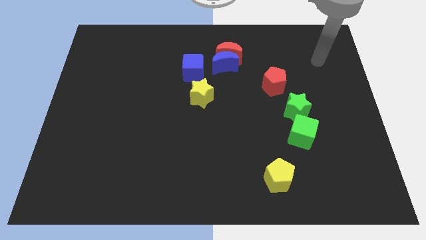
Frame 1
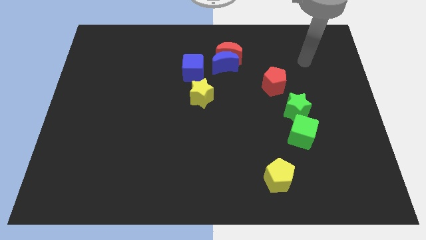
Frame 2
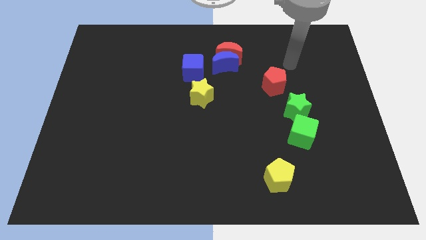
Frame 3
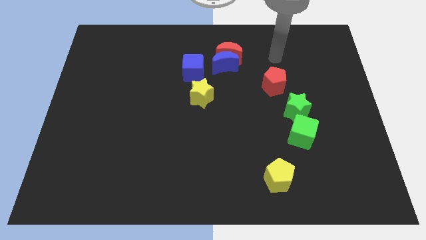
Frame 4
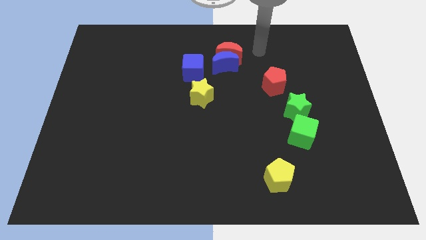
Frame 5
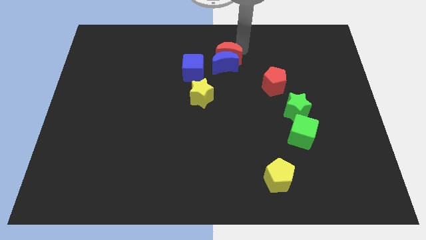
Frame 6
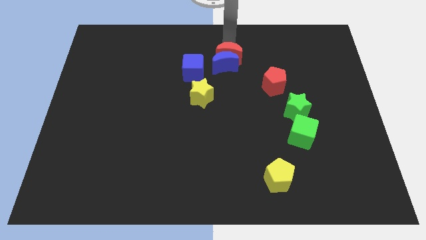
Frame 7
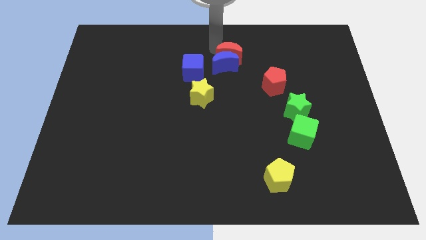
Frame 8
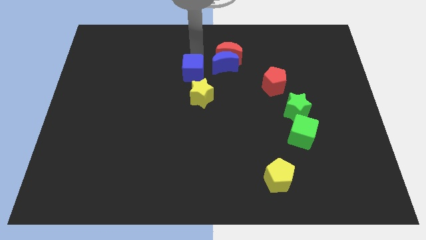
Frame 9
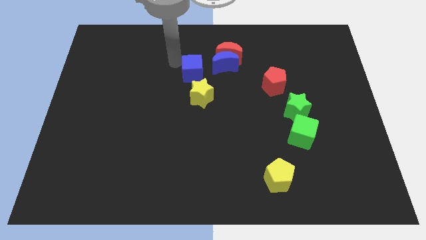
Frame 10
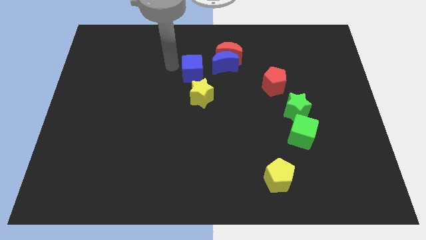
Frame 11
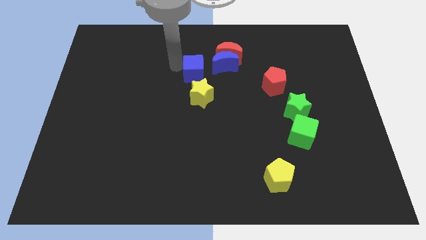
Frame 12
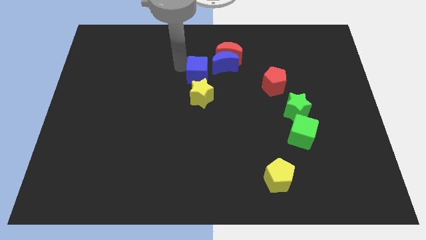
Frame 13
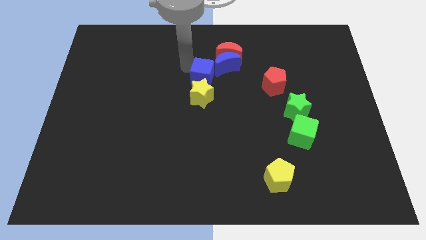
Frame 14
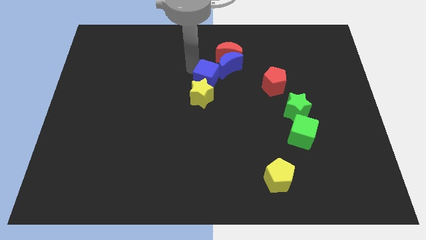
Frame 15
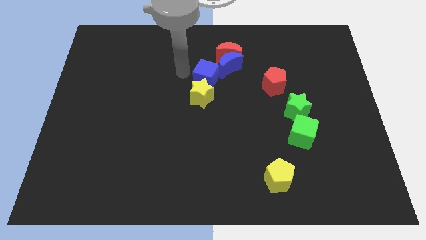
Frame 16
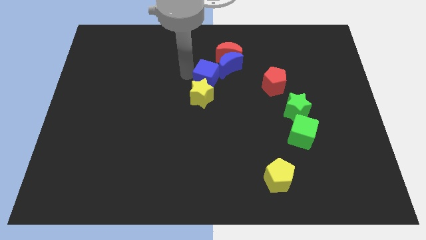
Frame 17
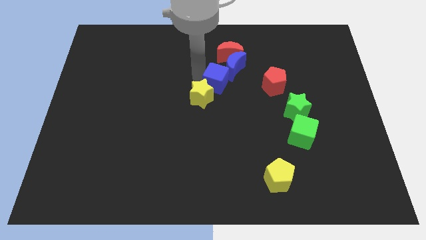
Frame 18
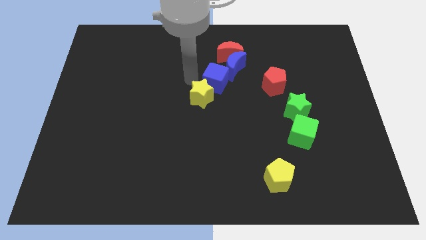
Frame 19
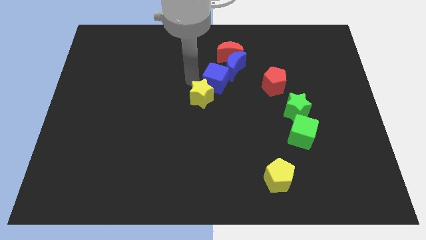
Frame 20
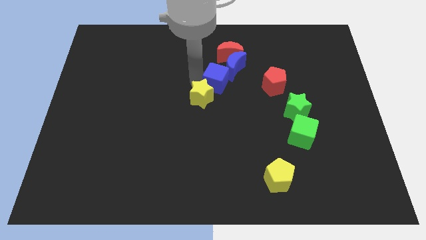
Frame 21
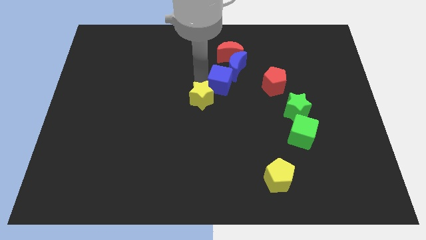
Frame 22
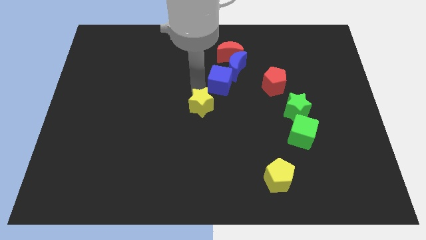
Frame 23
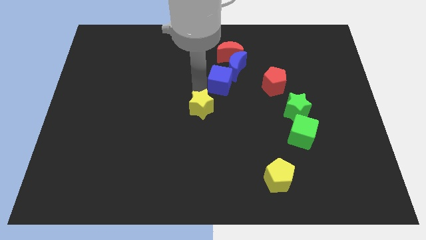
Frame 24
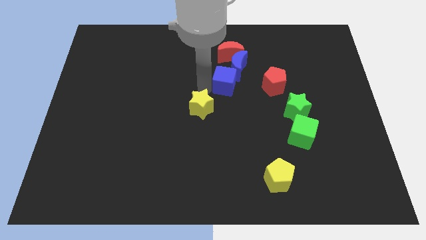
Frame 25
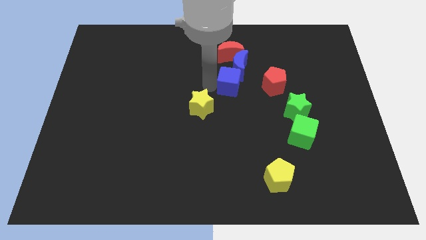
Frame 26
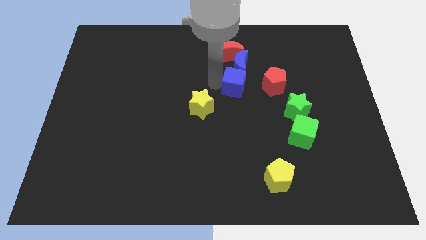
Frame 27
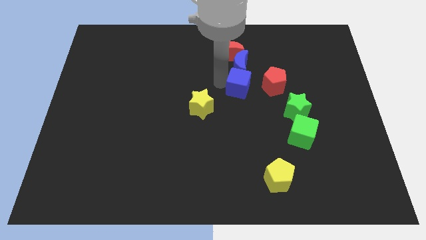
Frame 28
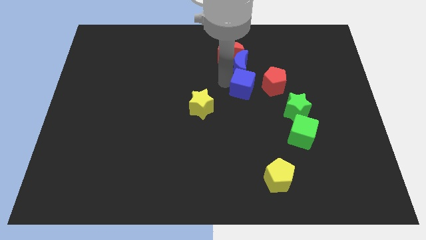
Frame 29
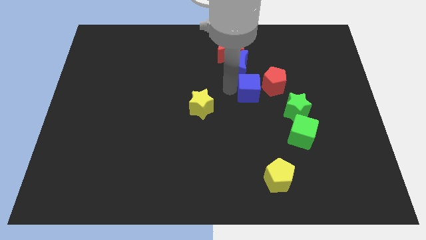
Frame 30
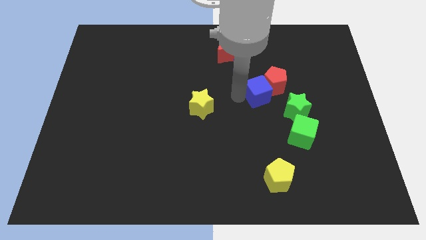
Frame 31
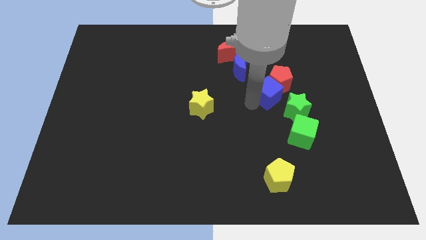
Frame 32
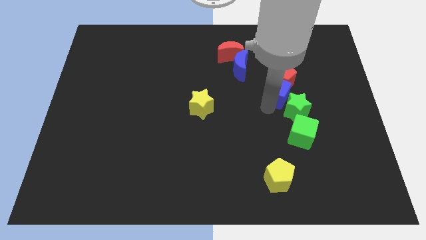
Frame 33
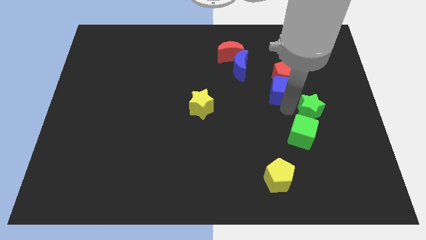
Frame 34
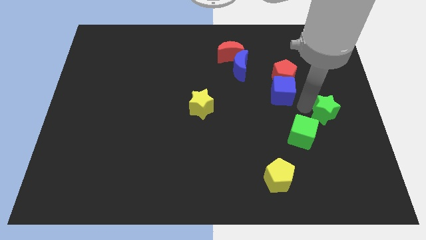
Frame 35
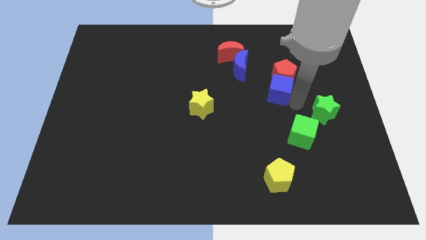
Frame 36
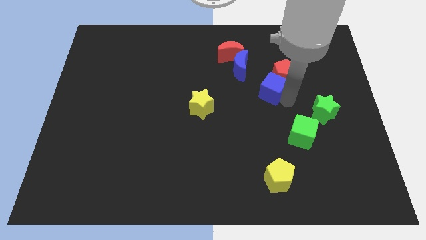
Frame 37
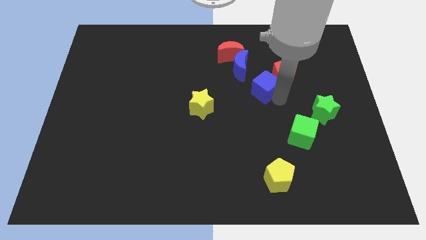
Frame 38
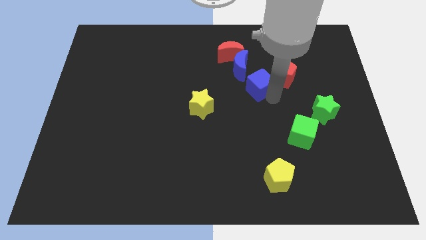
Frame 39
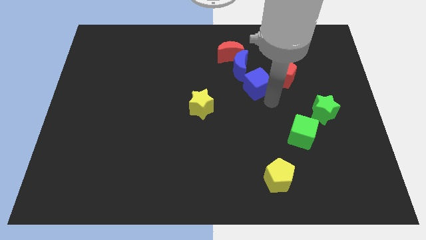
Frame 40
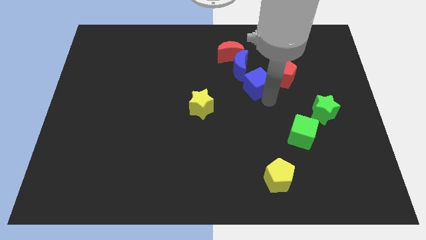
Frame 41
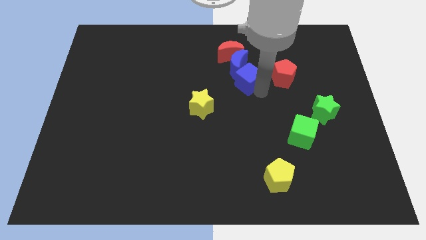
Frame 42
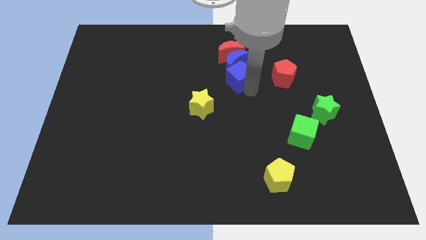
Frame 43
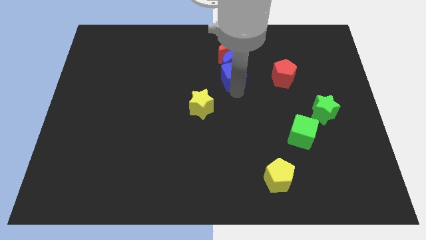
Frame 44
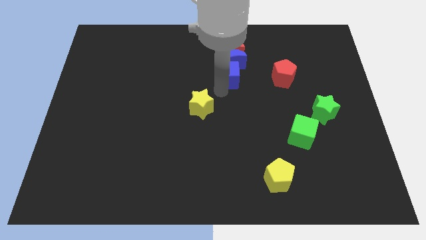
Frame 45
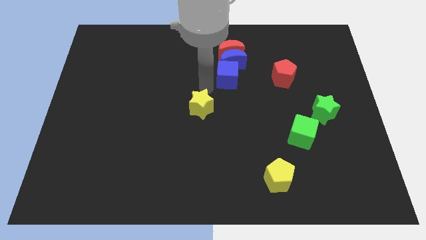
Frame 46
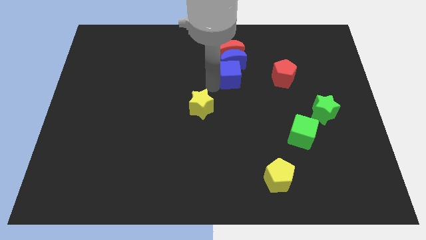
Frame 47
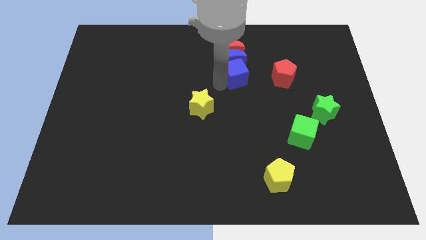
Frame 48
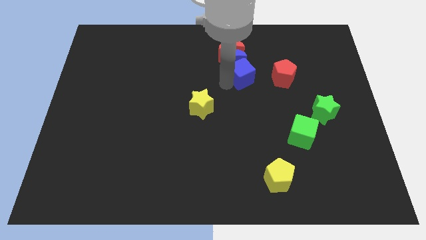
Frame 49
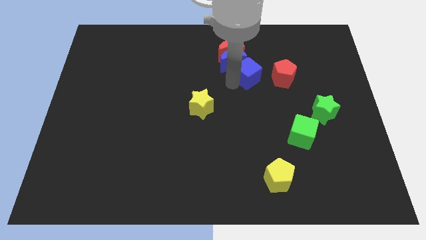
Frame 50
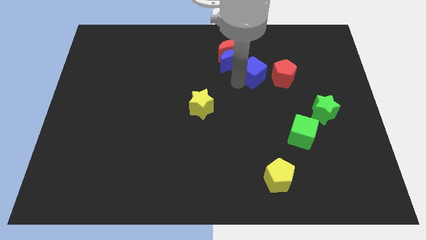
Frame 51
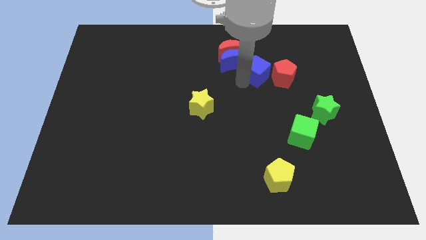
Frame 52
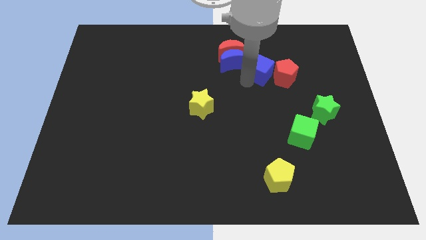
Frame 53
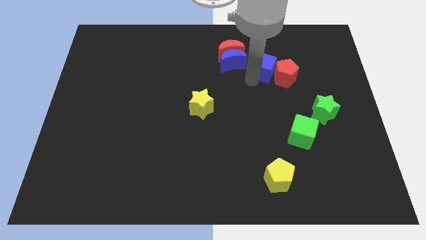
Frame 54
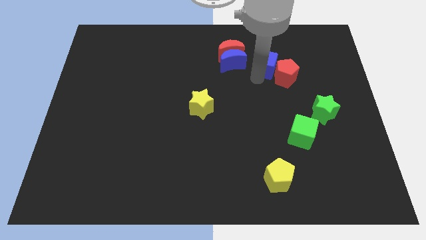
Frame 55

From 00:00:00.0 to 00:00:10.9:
put the blue cube just right of the red moon
